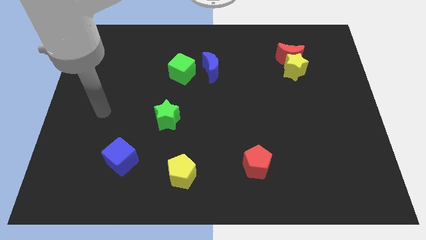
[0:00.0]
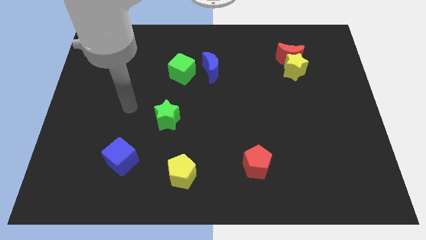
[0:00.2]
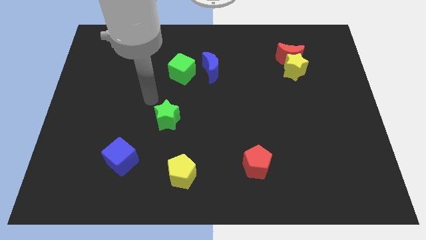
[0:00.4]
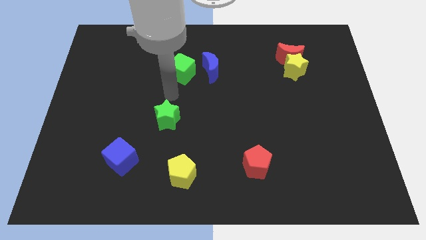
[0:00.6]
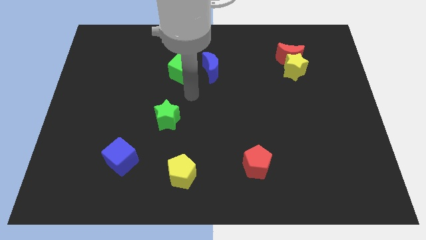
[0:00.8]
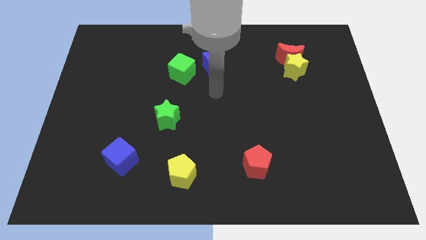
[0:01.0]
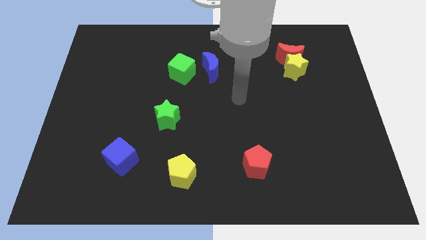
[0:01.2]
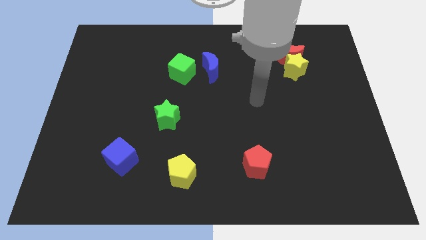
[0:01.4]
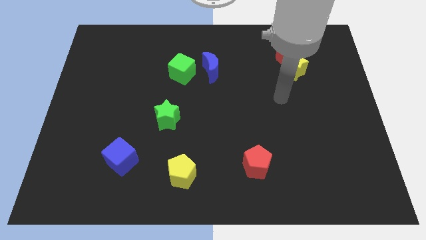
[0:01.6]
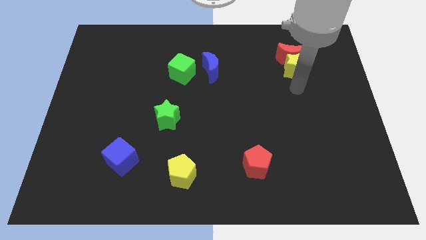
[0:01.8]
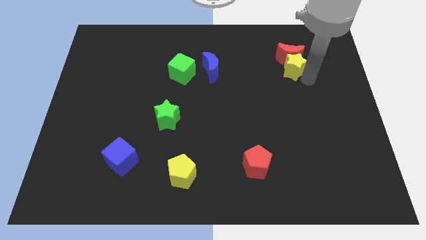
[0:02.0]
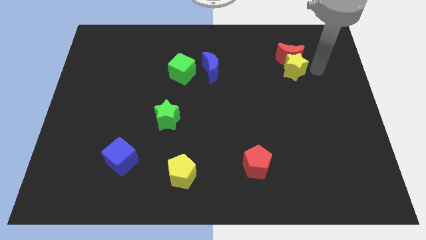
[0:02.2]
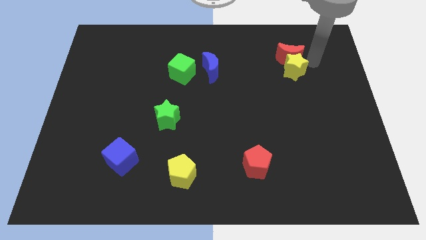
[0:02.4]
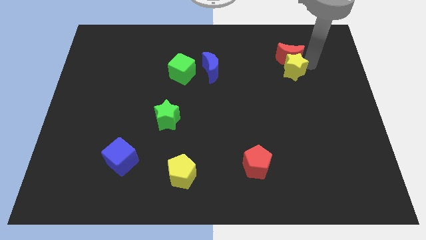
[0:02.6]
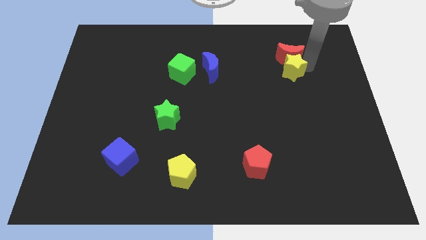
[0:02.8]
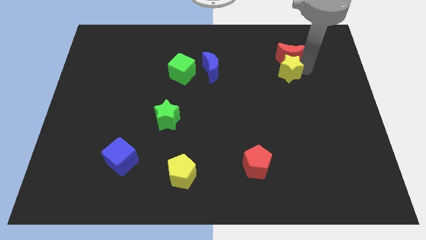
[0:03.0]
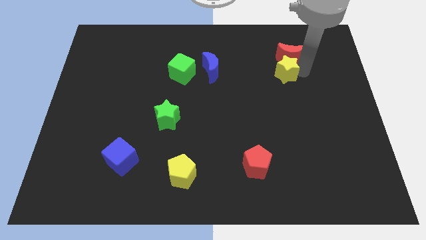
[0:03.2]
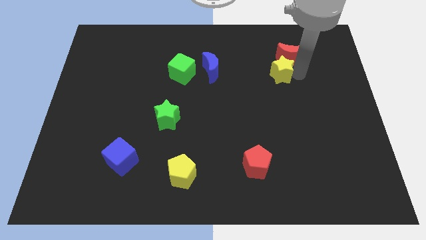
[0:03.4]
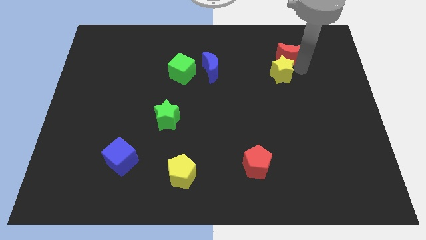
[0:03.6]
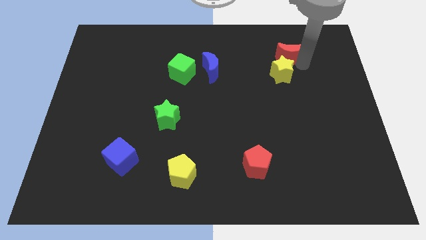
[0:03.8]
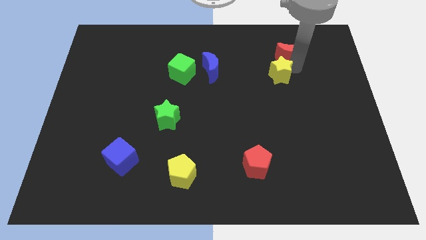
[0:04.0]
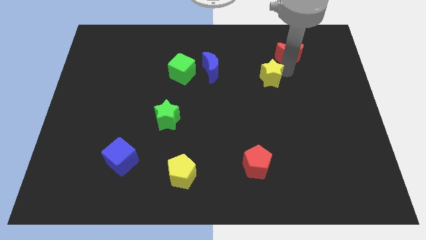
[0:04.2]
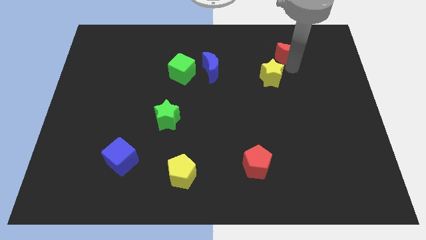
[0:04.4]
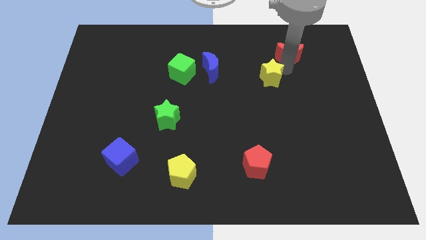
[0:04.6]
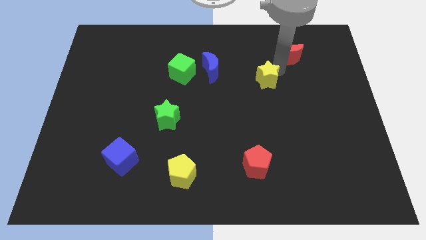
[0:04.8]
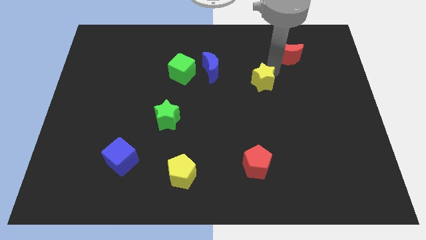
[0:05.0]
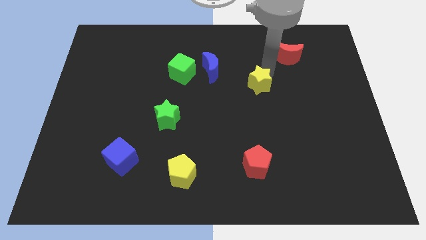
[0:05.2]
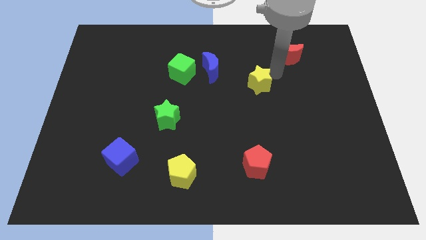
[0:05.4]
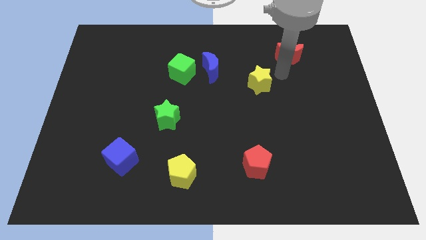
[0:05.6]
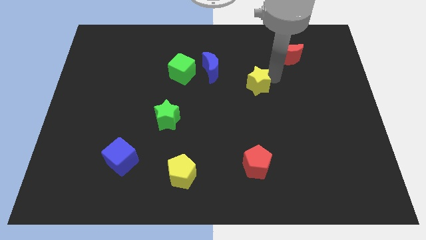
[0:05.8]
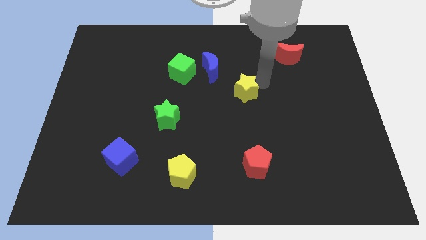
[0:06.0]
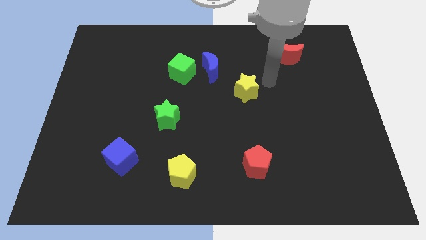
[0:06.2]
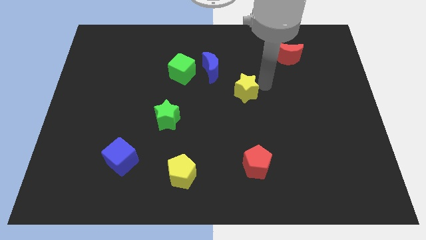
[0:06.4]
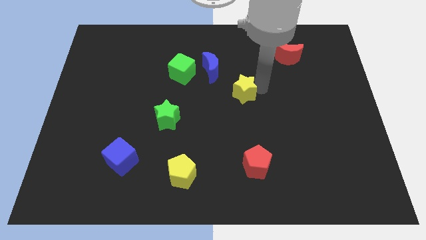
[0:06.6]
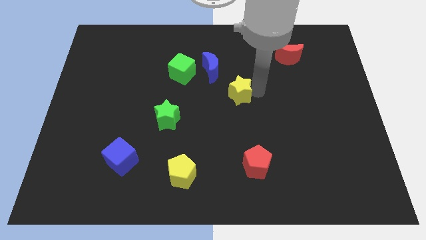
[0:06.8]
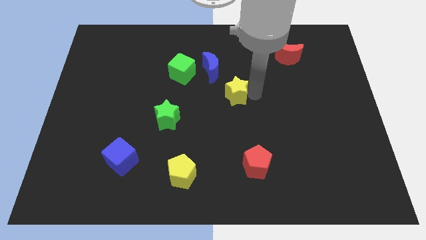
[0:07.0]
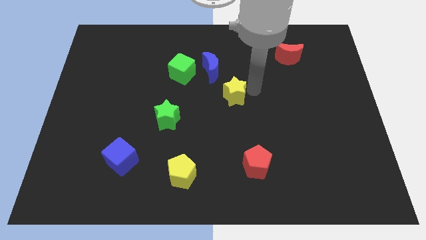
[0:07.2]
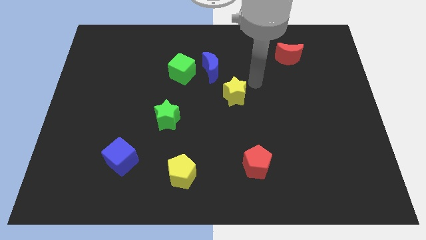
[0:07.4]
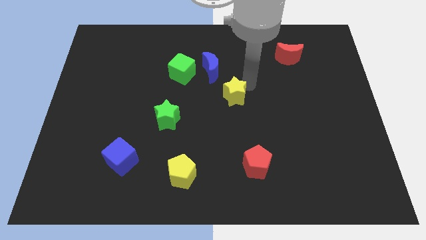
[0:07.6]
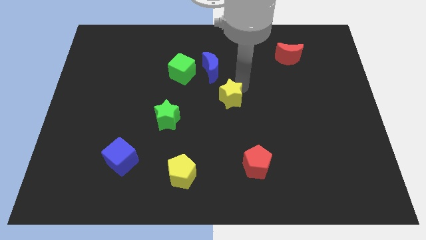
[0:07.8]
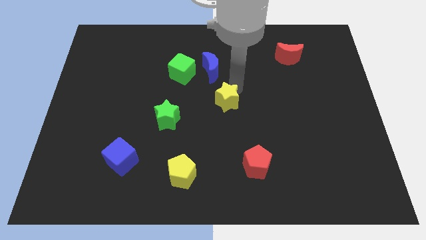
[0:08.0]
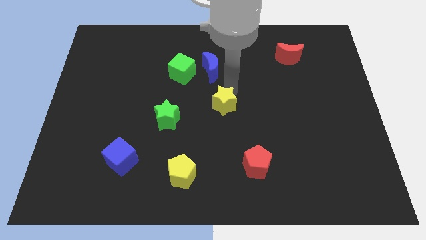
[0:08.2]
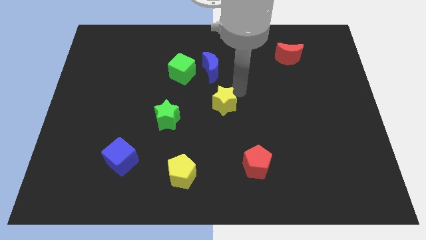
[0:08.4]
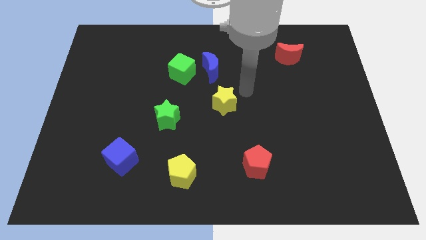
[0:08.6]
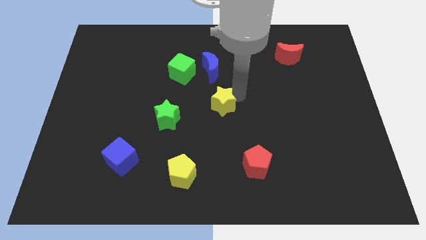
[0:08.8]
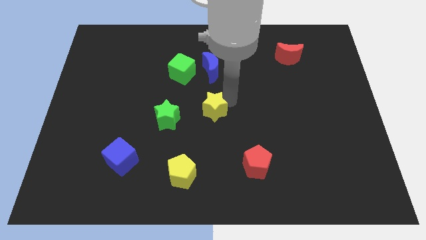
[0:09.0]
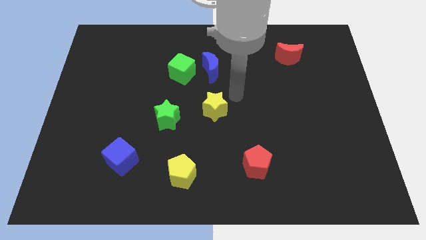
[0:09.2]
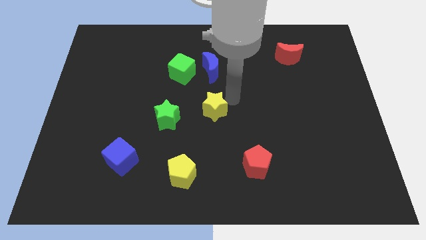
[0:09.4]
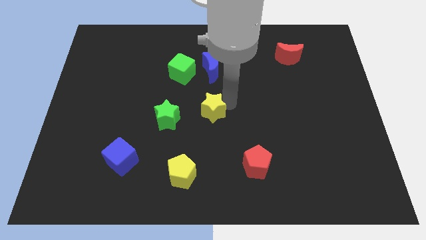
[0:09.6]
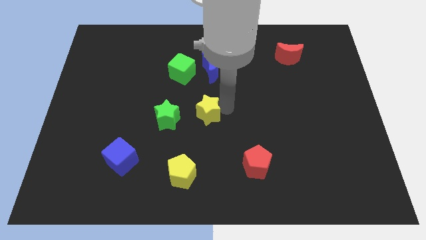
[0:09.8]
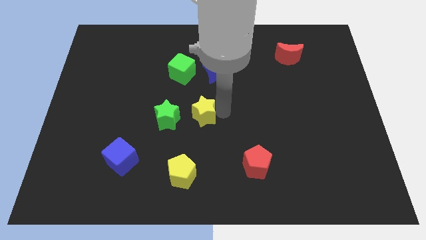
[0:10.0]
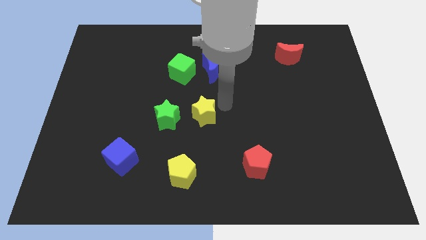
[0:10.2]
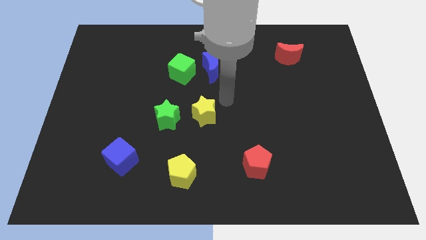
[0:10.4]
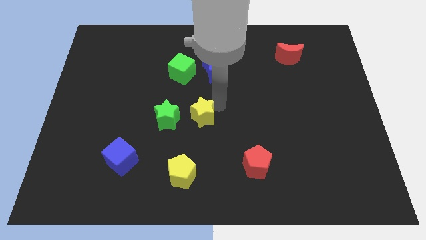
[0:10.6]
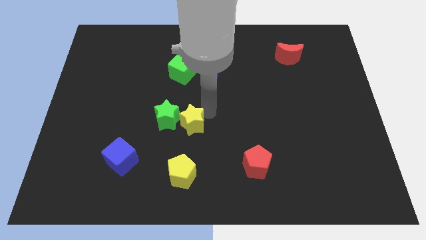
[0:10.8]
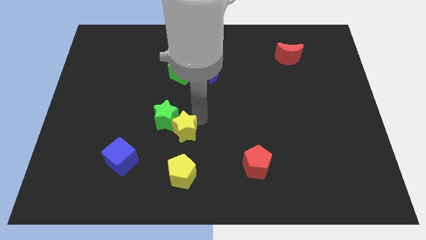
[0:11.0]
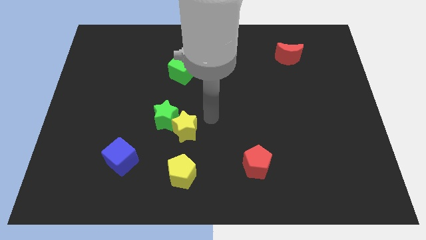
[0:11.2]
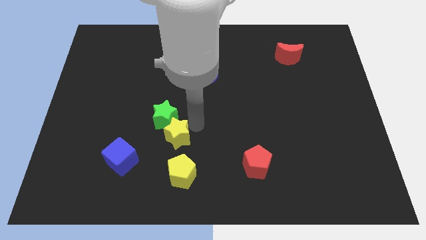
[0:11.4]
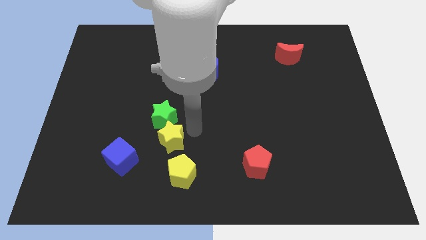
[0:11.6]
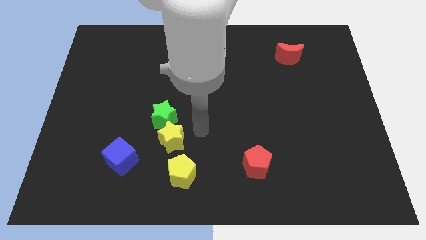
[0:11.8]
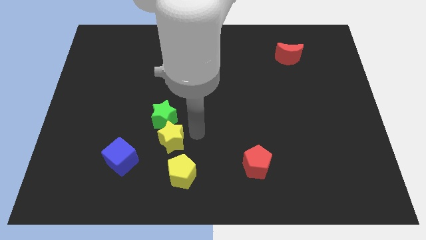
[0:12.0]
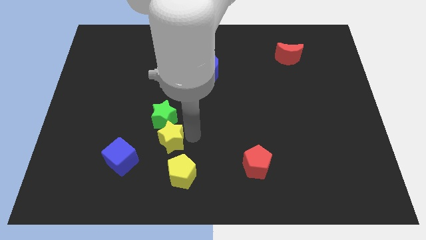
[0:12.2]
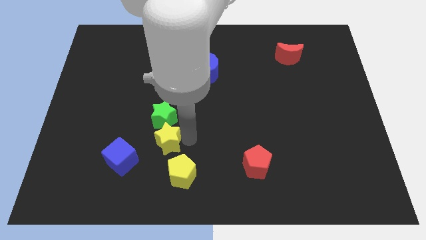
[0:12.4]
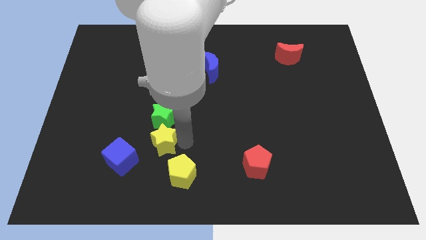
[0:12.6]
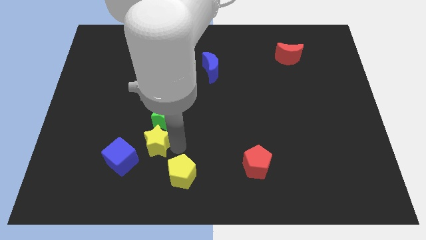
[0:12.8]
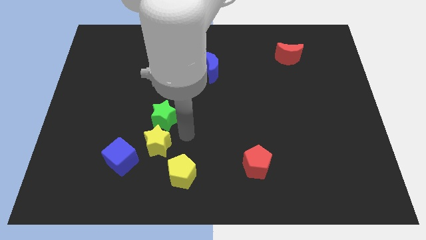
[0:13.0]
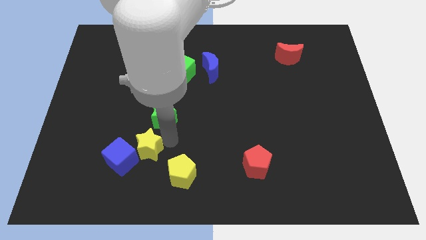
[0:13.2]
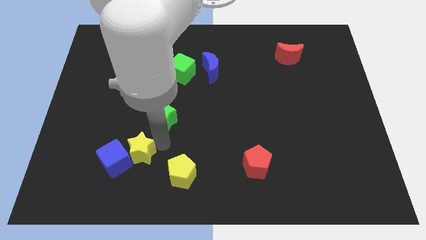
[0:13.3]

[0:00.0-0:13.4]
push the yellow star towards the blue cube

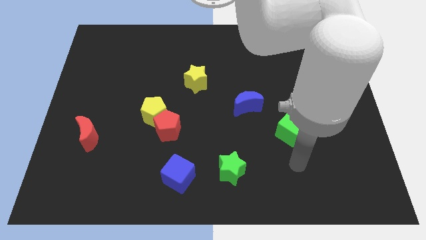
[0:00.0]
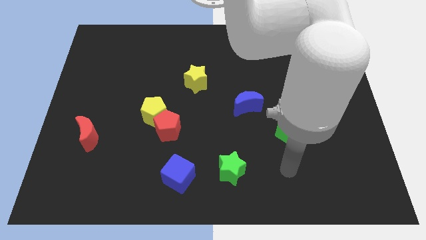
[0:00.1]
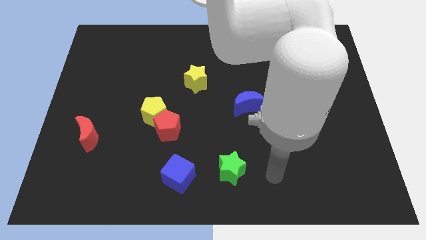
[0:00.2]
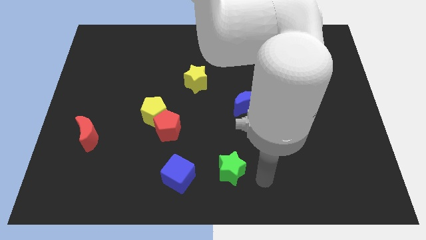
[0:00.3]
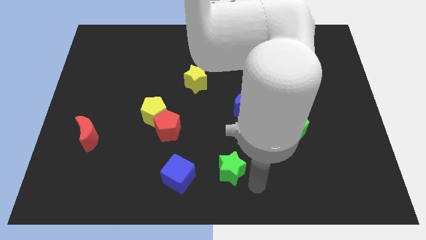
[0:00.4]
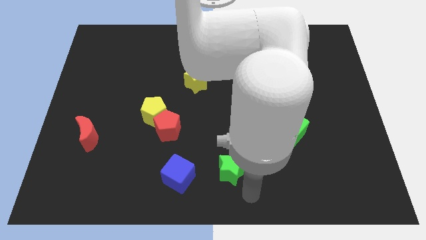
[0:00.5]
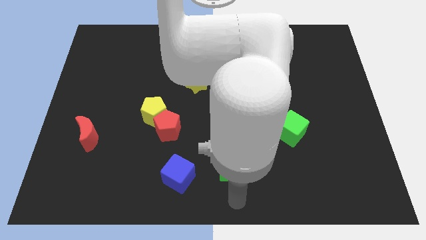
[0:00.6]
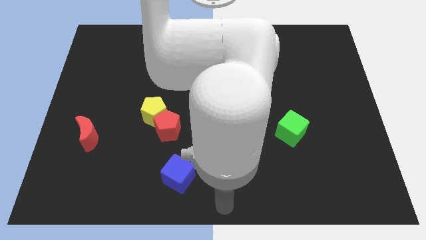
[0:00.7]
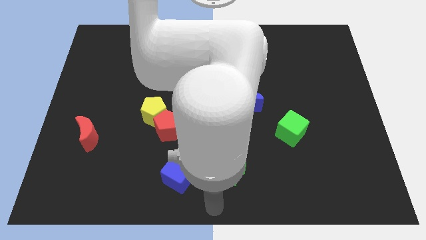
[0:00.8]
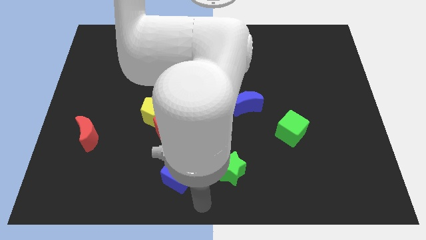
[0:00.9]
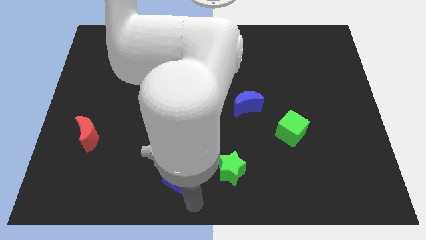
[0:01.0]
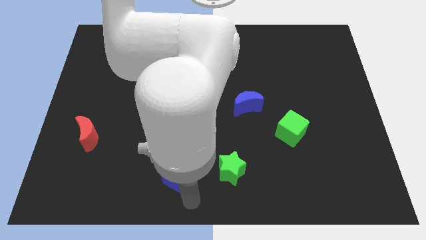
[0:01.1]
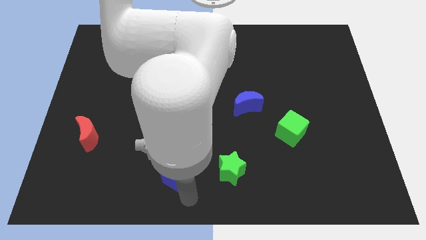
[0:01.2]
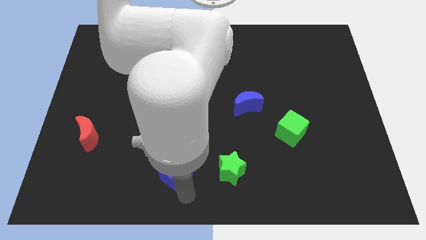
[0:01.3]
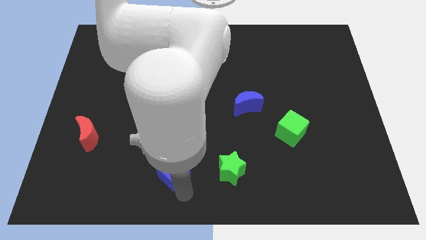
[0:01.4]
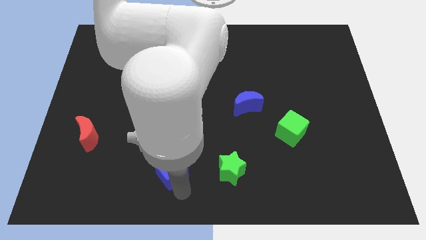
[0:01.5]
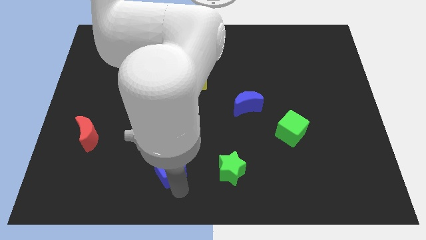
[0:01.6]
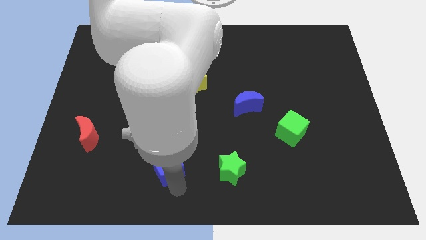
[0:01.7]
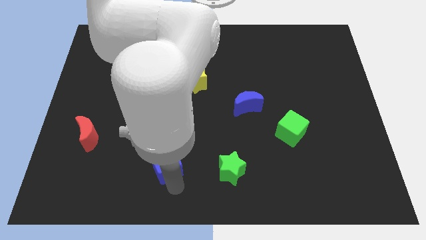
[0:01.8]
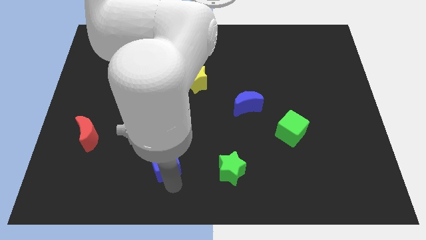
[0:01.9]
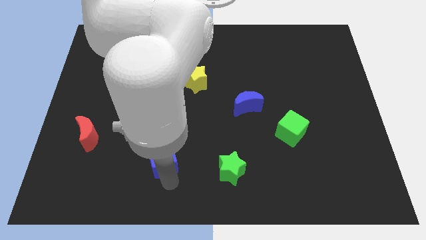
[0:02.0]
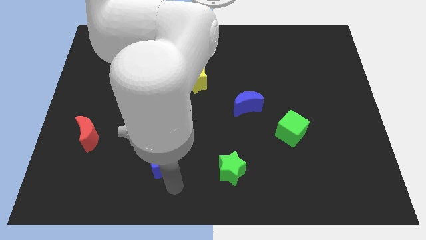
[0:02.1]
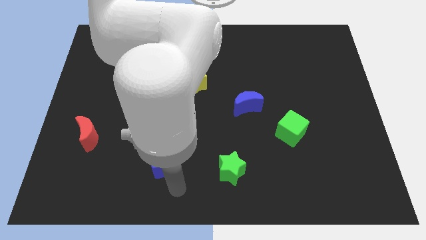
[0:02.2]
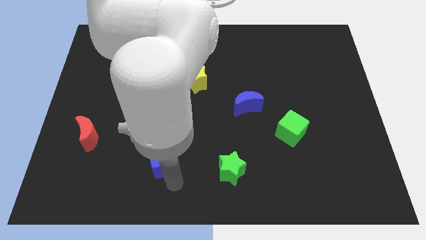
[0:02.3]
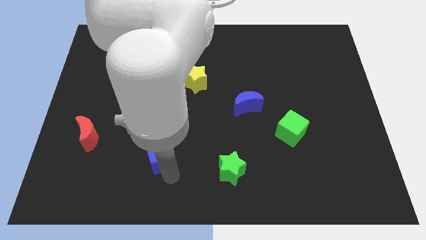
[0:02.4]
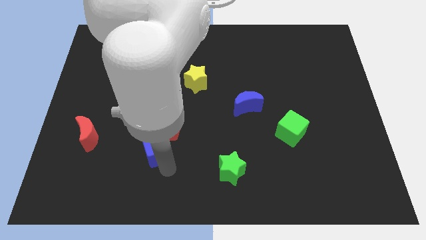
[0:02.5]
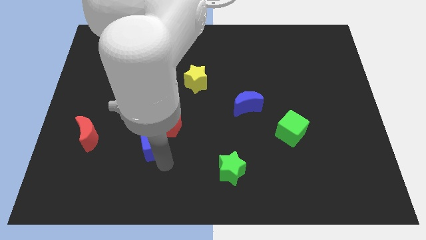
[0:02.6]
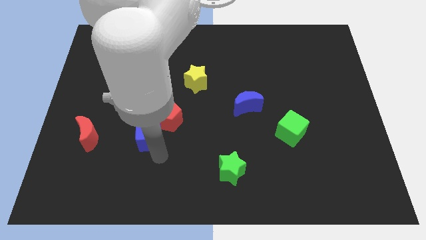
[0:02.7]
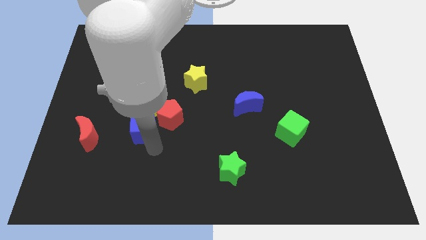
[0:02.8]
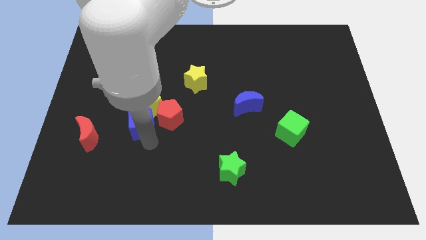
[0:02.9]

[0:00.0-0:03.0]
push the blue cube towards the yellow pentagon
